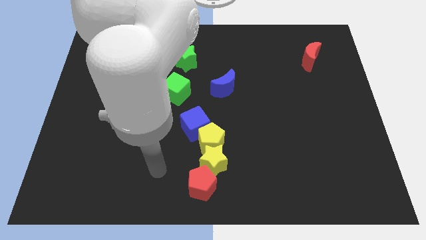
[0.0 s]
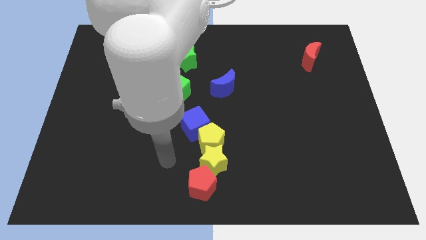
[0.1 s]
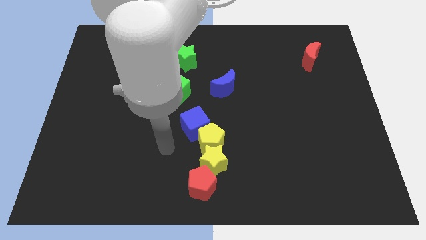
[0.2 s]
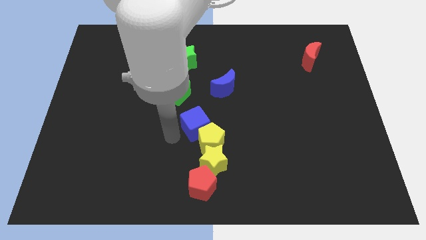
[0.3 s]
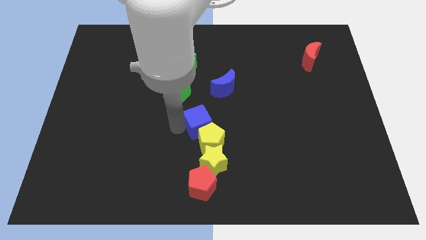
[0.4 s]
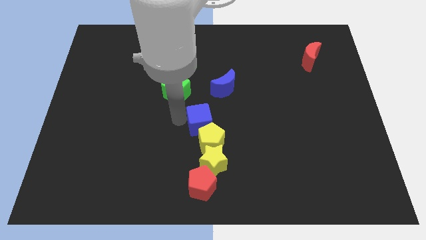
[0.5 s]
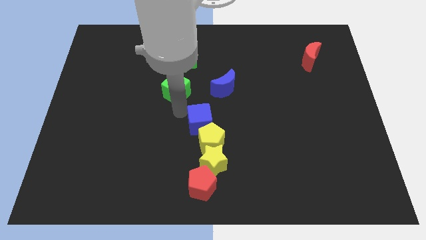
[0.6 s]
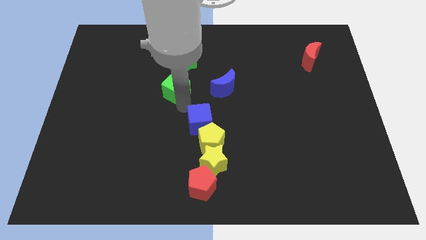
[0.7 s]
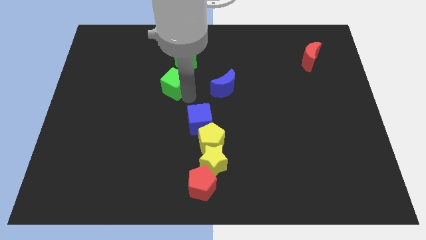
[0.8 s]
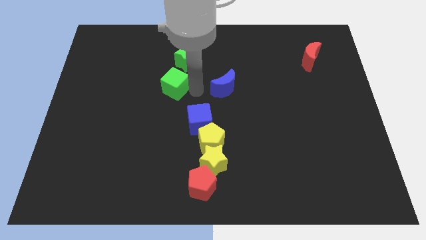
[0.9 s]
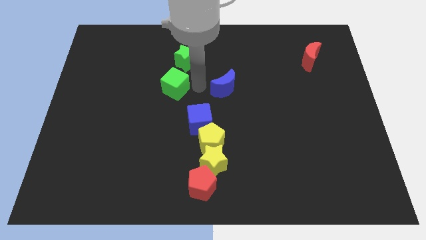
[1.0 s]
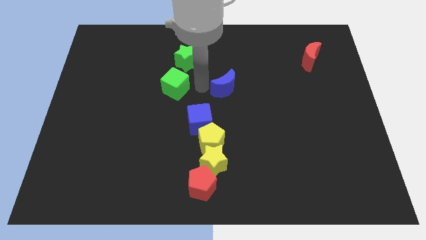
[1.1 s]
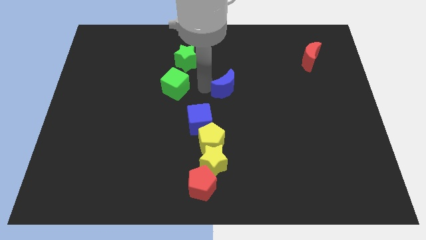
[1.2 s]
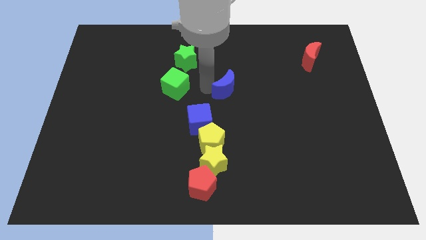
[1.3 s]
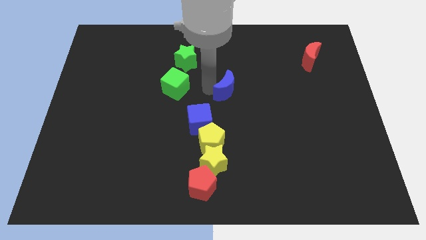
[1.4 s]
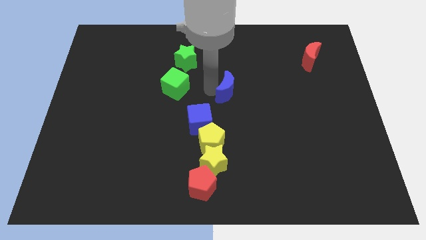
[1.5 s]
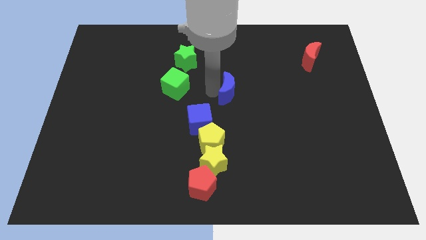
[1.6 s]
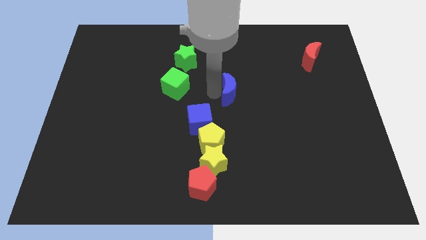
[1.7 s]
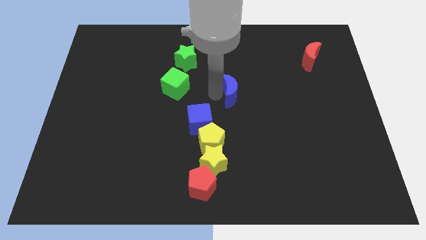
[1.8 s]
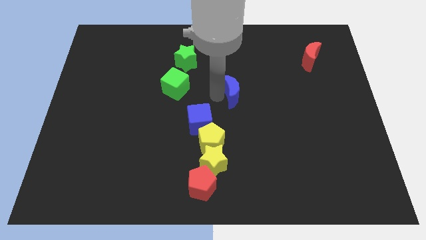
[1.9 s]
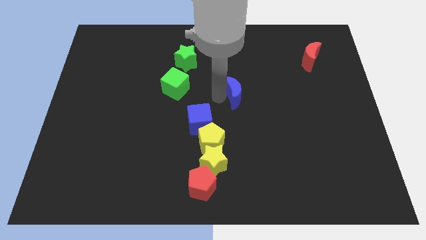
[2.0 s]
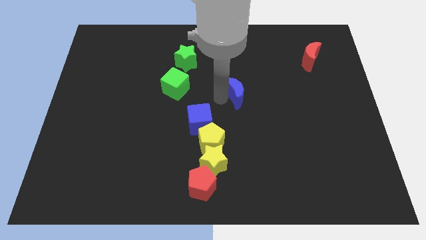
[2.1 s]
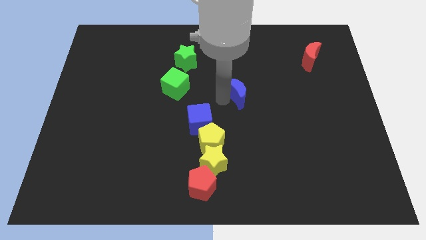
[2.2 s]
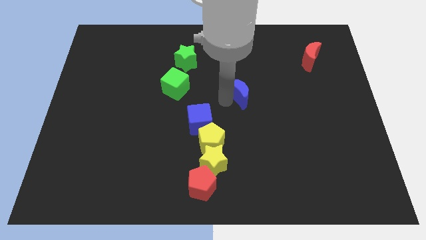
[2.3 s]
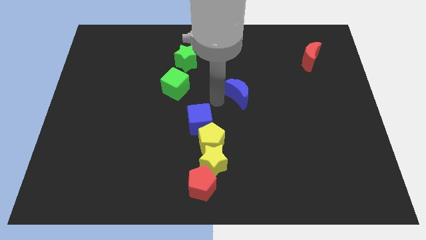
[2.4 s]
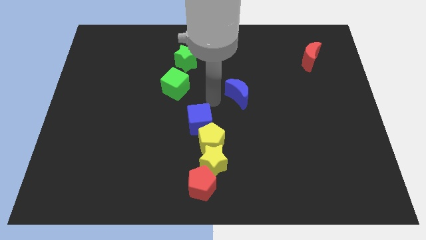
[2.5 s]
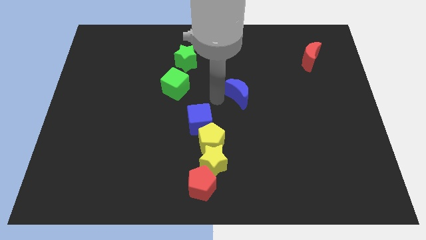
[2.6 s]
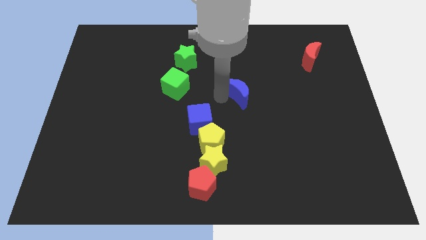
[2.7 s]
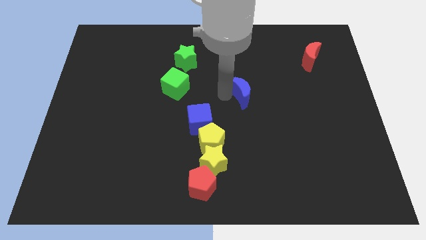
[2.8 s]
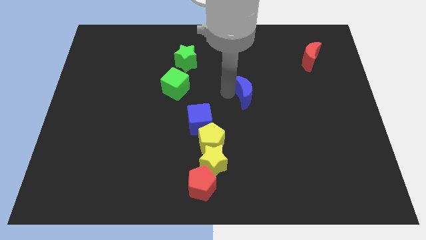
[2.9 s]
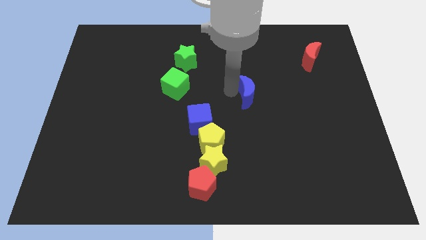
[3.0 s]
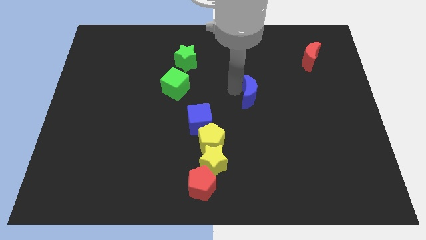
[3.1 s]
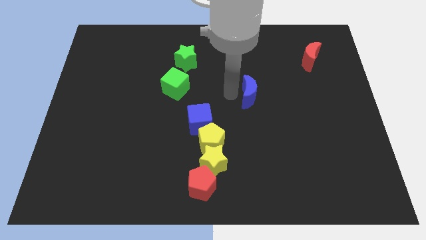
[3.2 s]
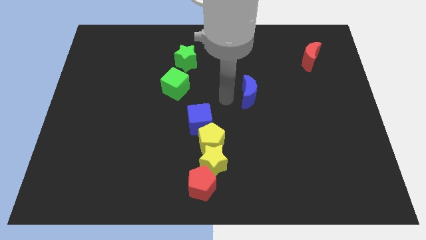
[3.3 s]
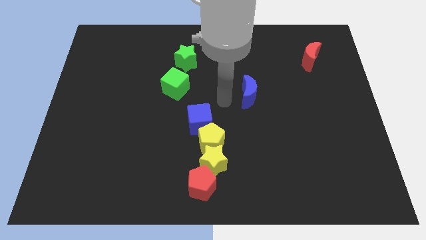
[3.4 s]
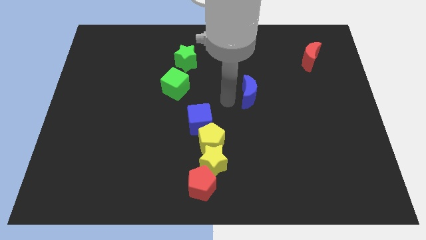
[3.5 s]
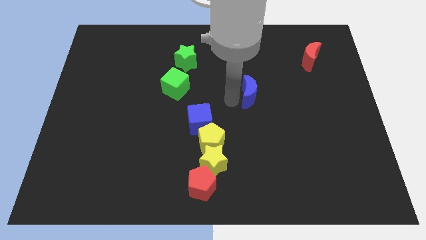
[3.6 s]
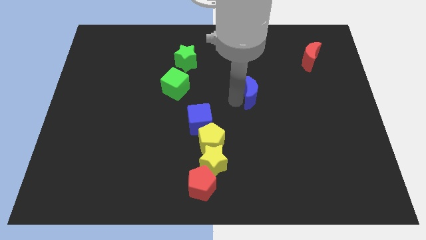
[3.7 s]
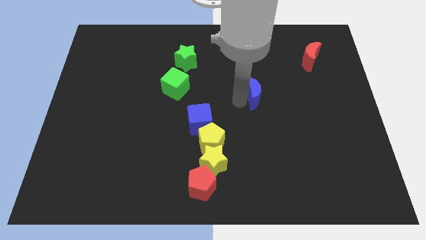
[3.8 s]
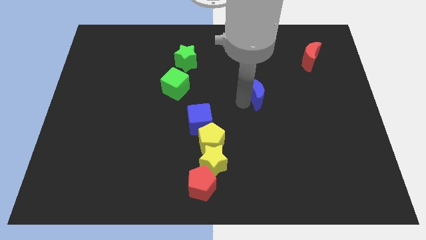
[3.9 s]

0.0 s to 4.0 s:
slightly slide the blue moon right

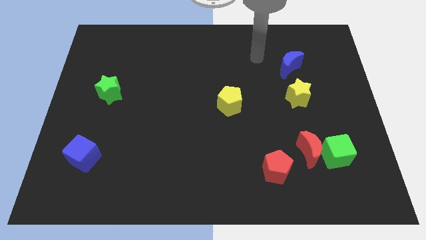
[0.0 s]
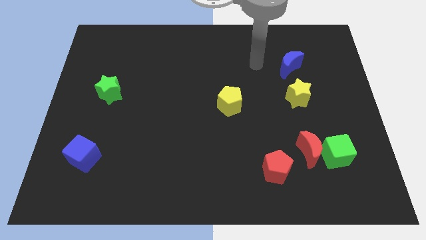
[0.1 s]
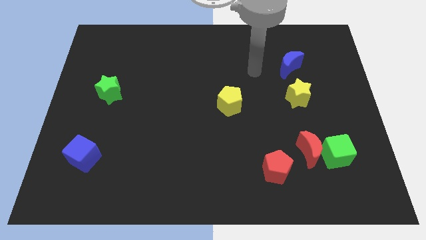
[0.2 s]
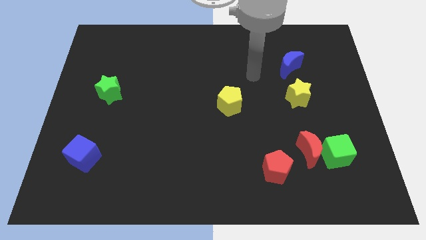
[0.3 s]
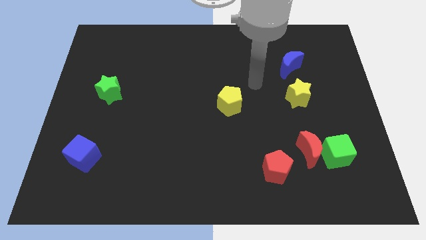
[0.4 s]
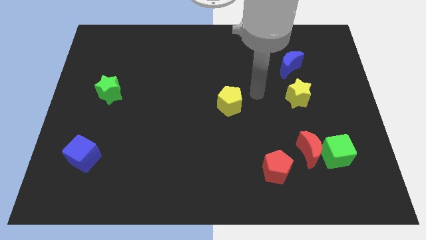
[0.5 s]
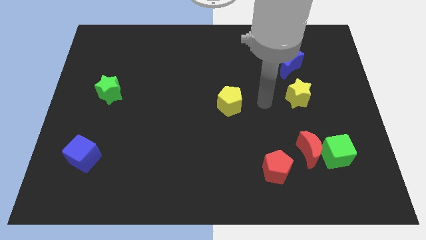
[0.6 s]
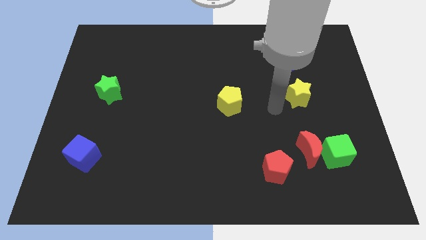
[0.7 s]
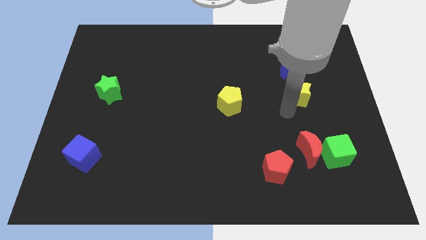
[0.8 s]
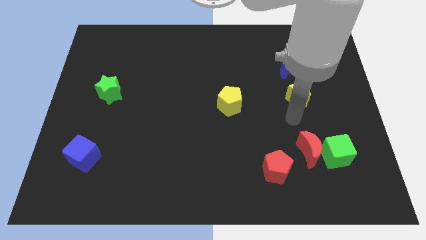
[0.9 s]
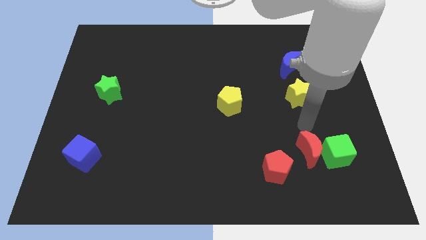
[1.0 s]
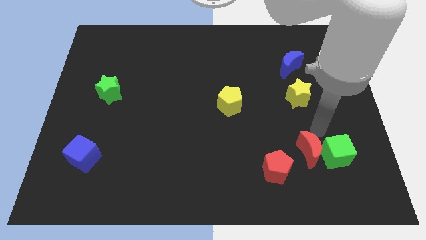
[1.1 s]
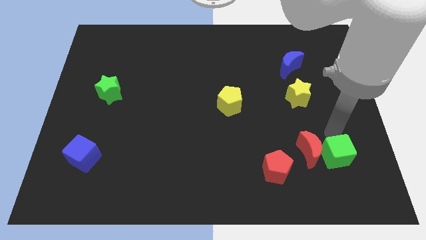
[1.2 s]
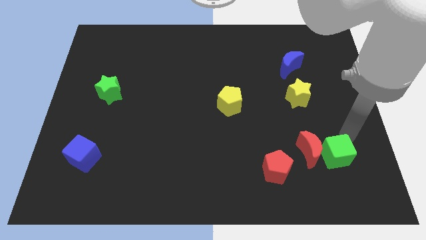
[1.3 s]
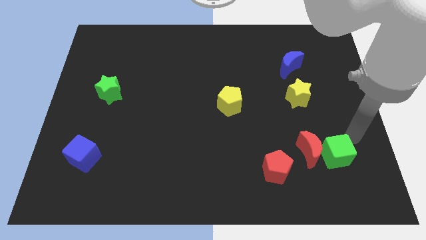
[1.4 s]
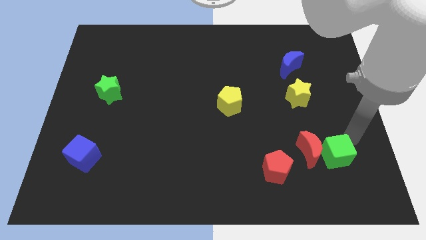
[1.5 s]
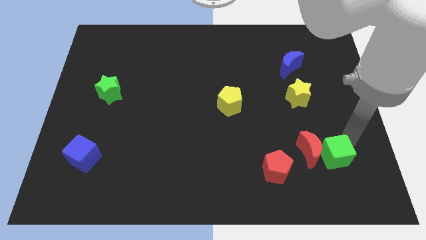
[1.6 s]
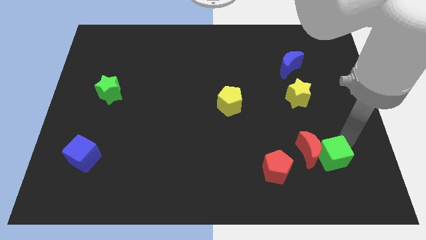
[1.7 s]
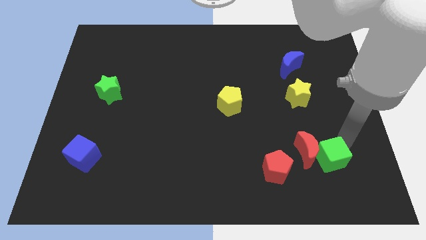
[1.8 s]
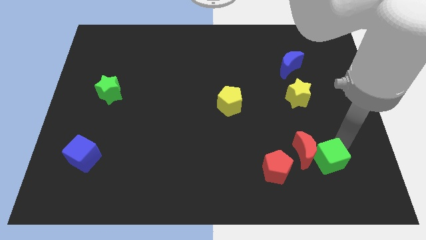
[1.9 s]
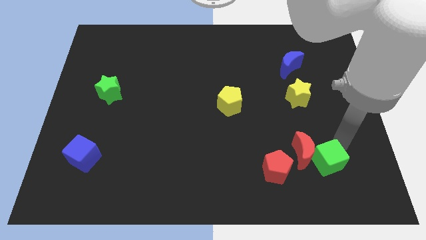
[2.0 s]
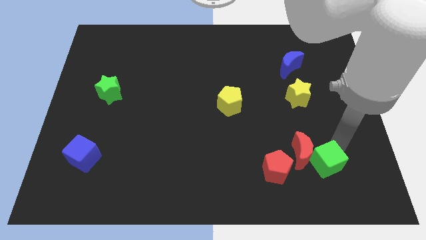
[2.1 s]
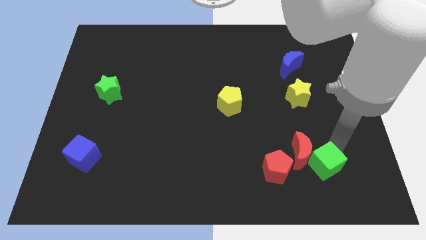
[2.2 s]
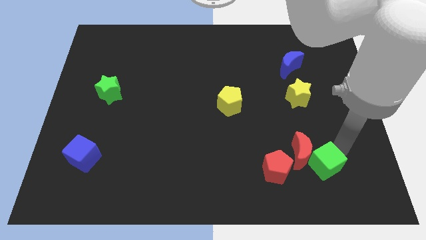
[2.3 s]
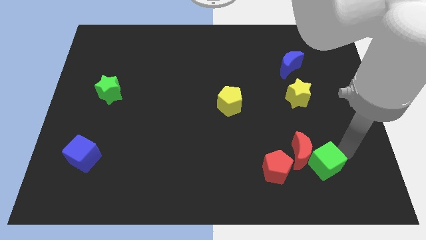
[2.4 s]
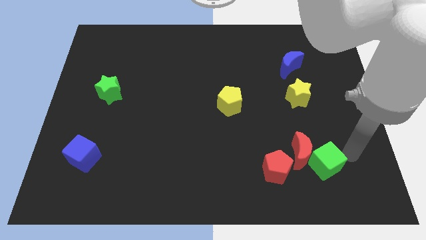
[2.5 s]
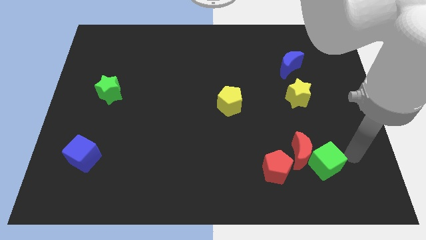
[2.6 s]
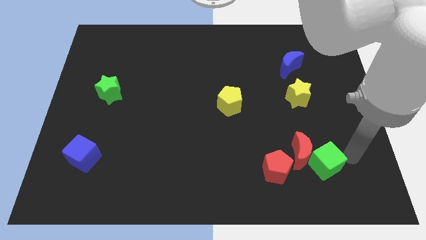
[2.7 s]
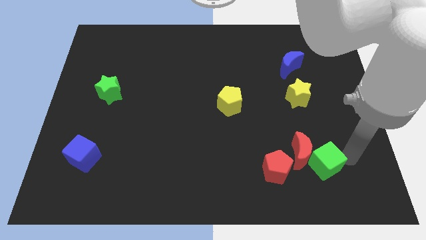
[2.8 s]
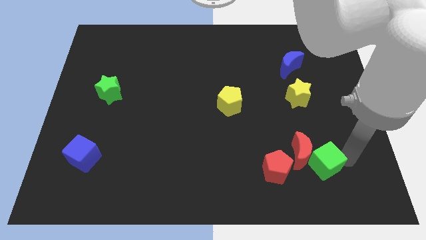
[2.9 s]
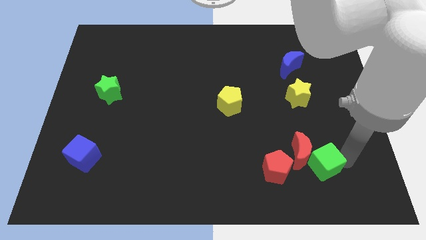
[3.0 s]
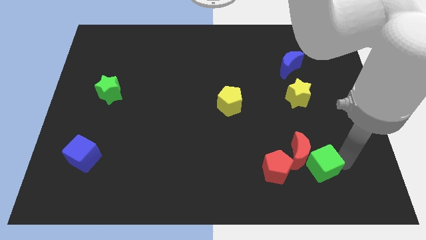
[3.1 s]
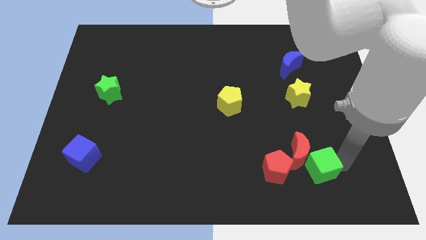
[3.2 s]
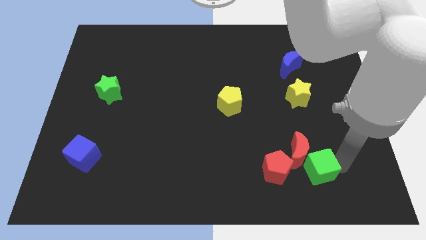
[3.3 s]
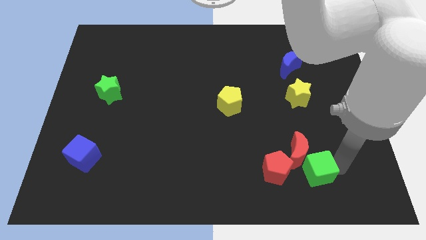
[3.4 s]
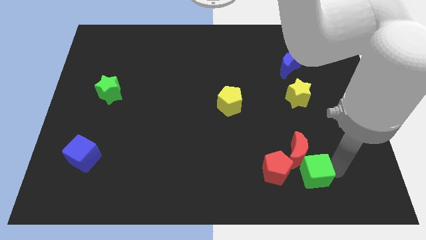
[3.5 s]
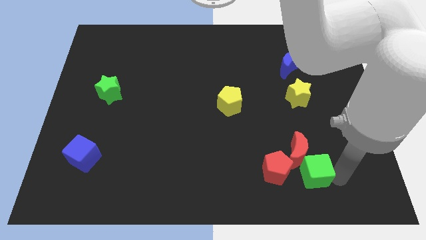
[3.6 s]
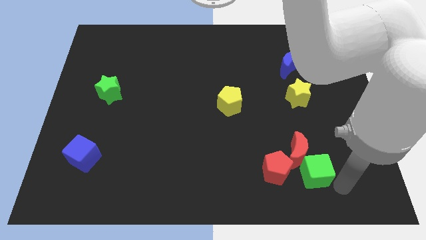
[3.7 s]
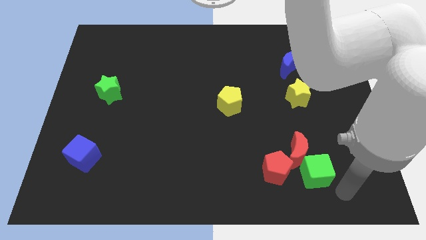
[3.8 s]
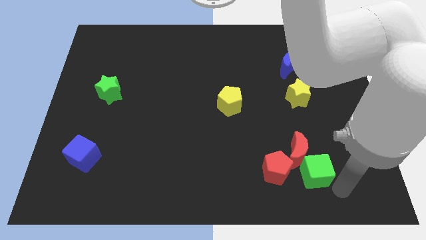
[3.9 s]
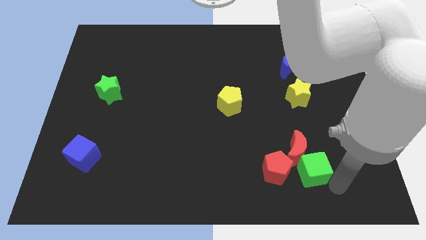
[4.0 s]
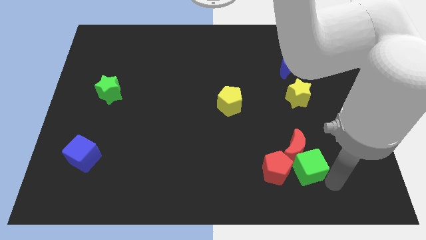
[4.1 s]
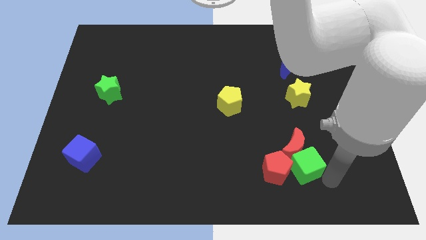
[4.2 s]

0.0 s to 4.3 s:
slide the green cube to the left a bit
